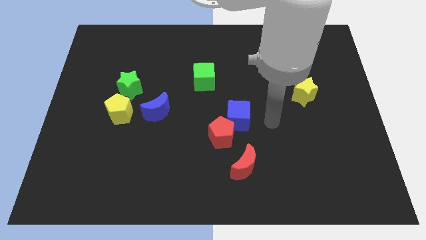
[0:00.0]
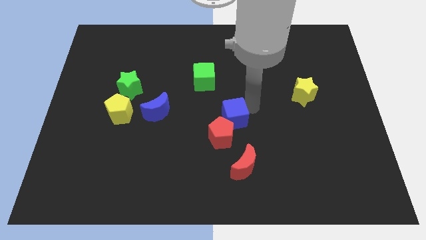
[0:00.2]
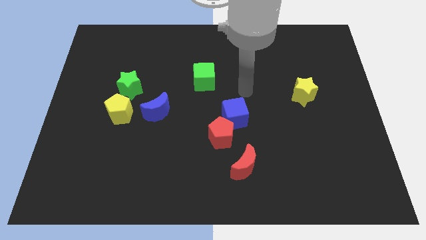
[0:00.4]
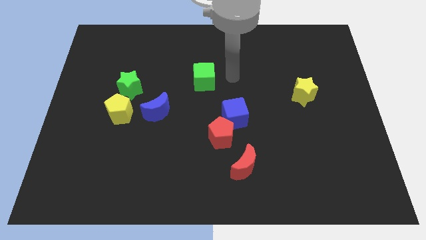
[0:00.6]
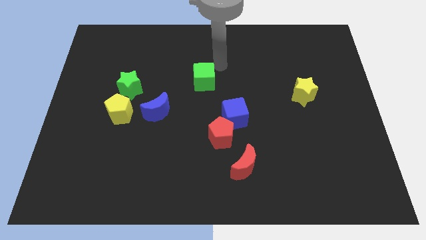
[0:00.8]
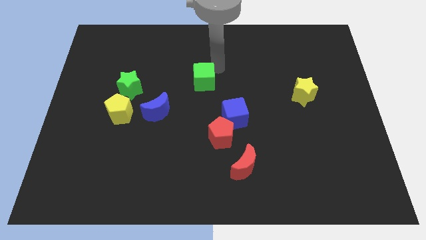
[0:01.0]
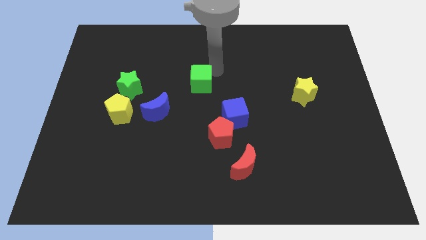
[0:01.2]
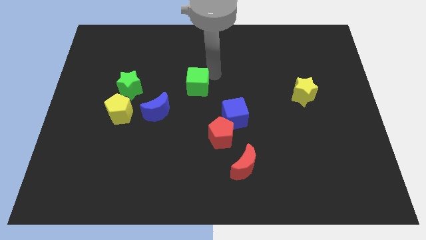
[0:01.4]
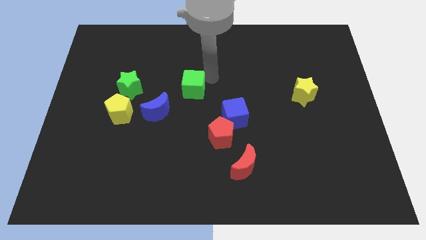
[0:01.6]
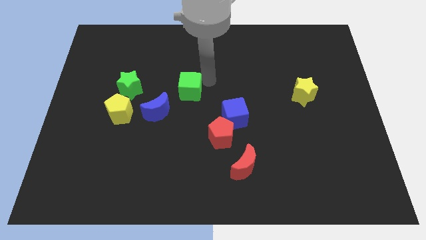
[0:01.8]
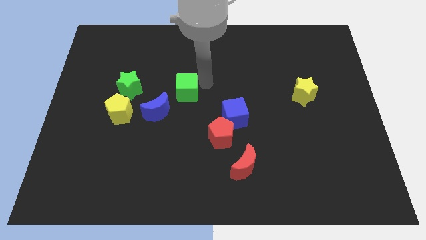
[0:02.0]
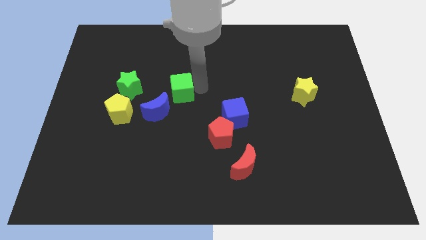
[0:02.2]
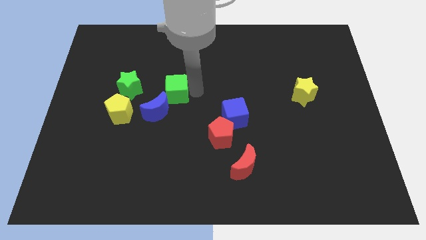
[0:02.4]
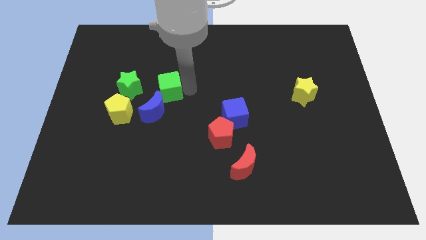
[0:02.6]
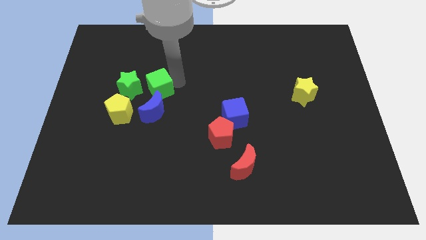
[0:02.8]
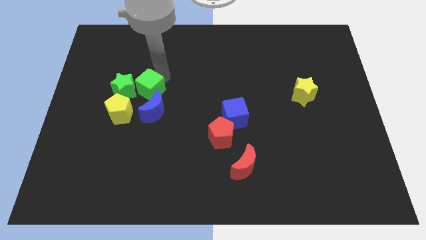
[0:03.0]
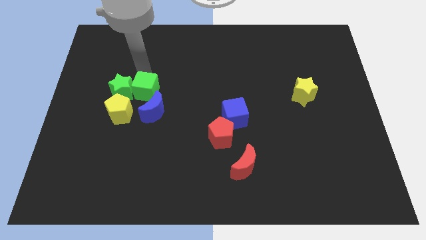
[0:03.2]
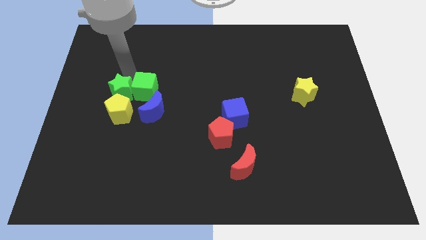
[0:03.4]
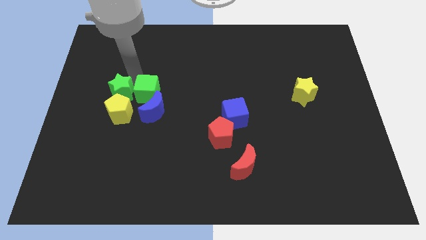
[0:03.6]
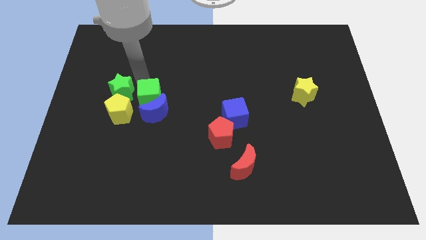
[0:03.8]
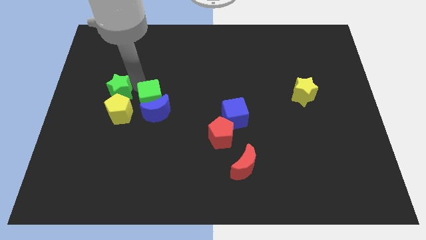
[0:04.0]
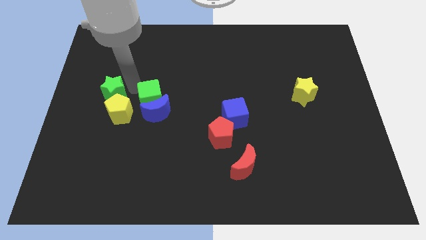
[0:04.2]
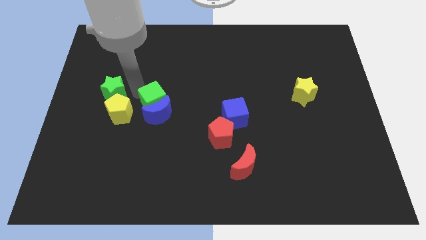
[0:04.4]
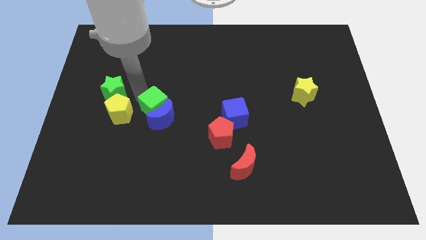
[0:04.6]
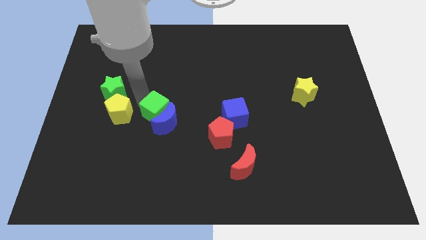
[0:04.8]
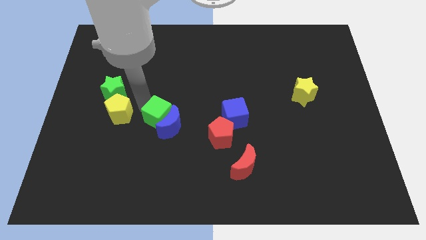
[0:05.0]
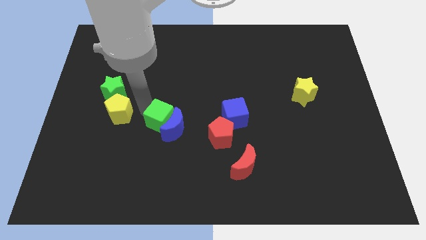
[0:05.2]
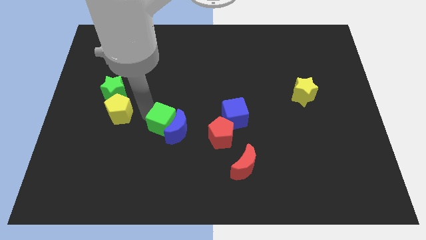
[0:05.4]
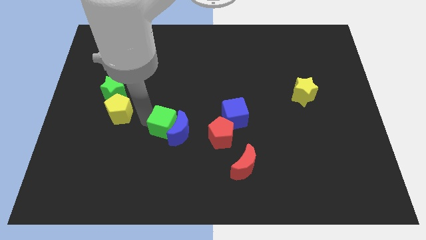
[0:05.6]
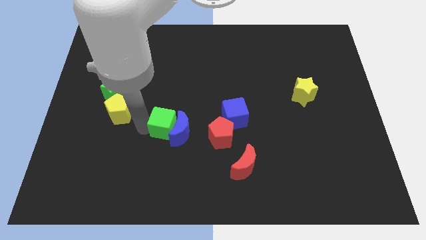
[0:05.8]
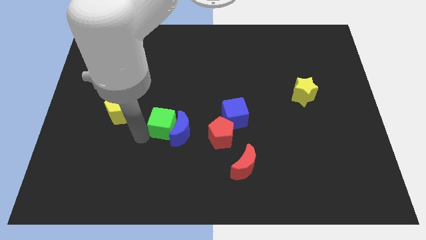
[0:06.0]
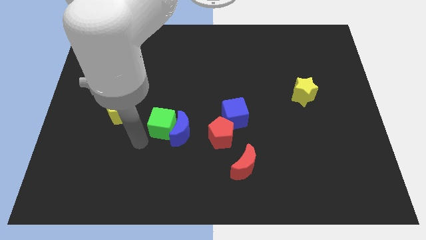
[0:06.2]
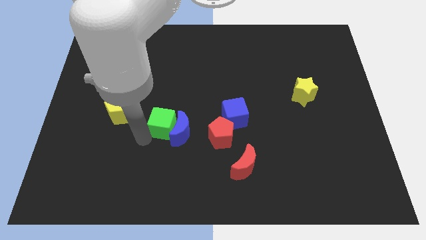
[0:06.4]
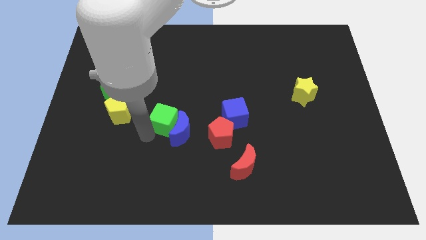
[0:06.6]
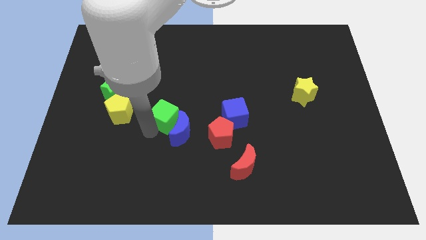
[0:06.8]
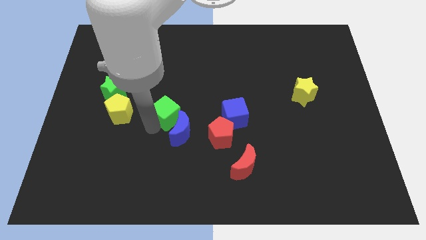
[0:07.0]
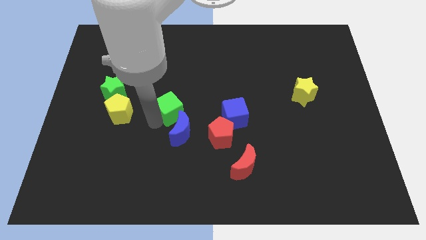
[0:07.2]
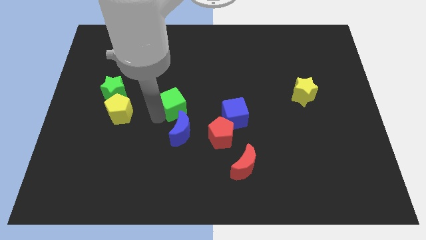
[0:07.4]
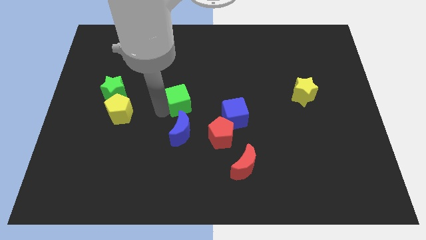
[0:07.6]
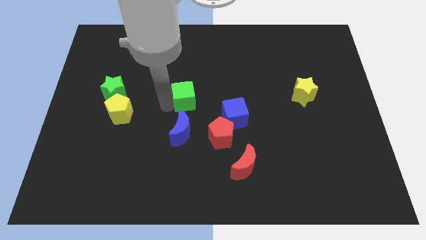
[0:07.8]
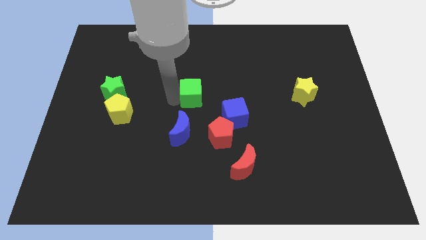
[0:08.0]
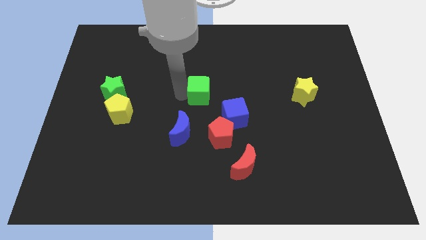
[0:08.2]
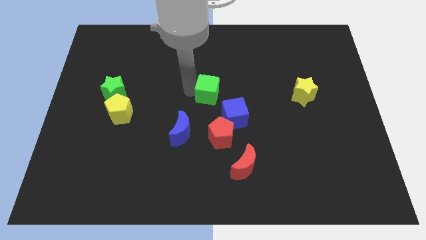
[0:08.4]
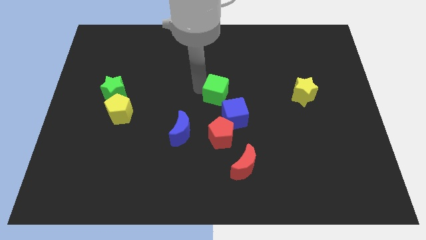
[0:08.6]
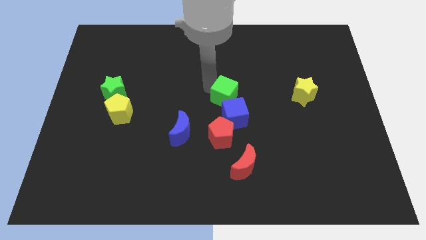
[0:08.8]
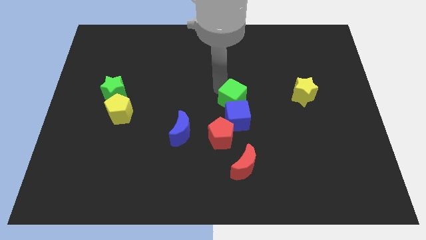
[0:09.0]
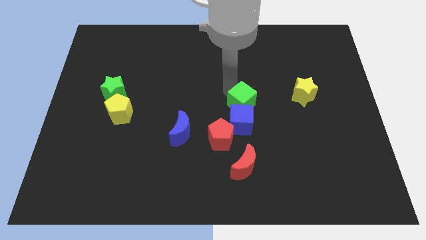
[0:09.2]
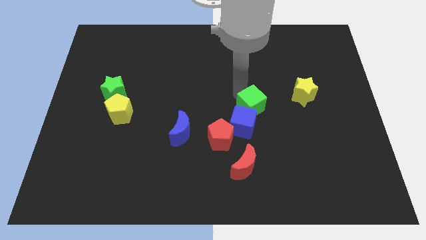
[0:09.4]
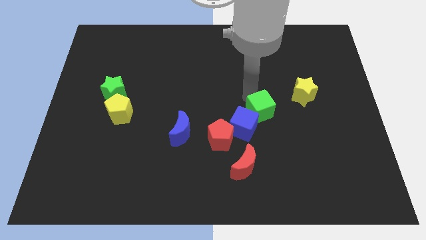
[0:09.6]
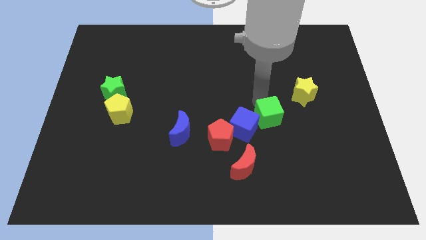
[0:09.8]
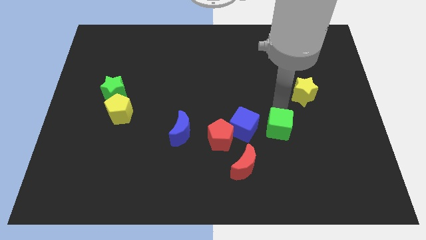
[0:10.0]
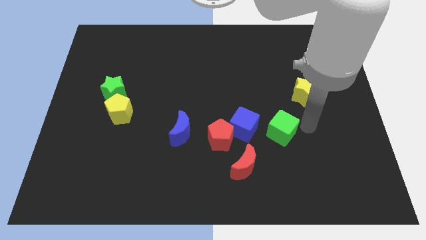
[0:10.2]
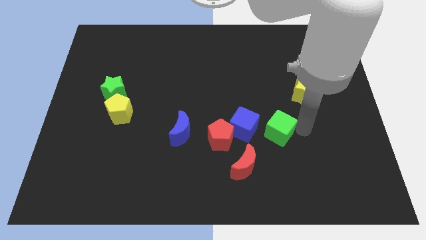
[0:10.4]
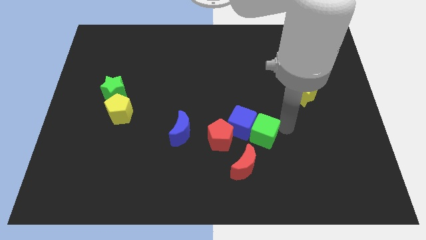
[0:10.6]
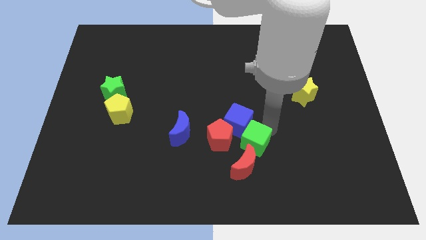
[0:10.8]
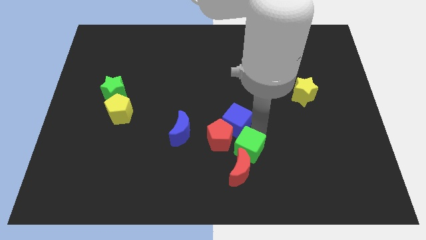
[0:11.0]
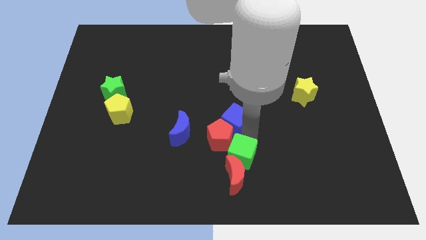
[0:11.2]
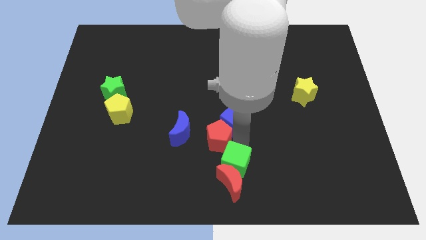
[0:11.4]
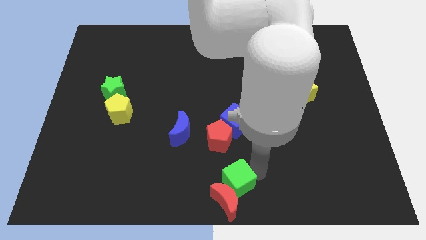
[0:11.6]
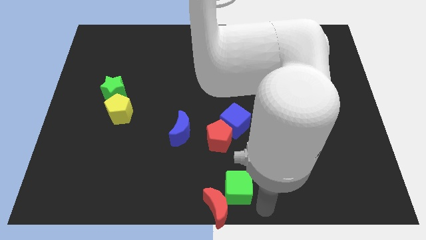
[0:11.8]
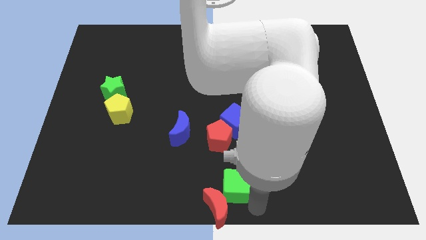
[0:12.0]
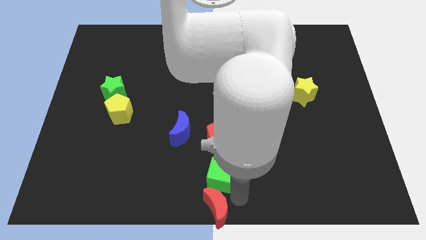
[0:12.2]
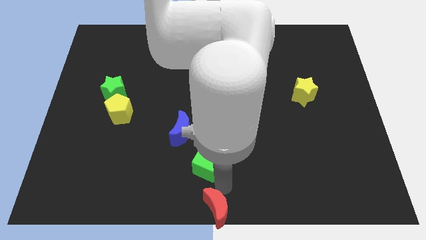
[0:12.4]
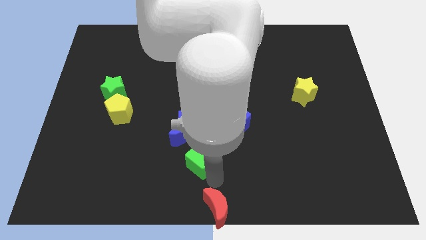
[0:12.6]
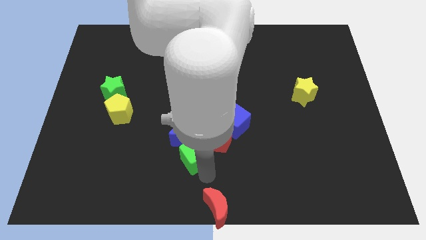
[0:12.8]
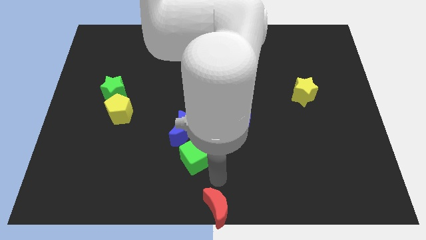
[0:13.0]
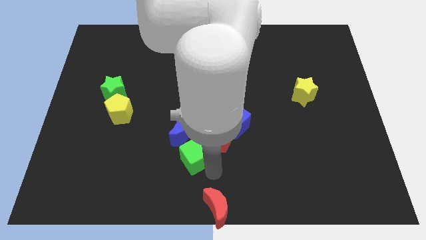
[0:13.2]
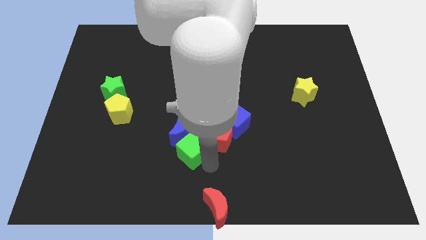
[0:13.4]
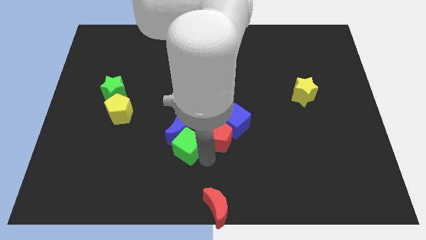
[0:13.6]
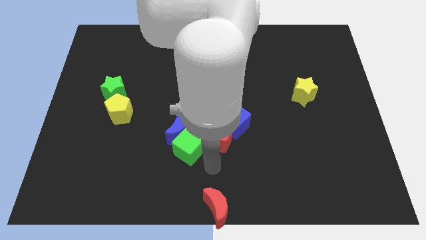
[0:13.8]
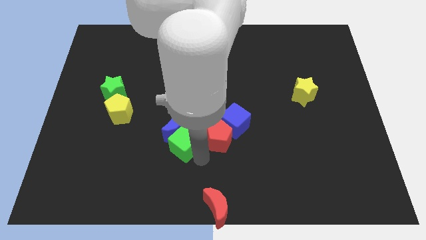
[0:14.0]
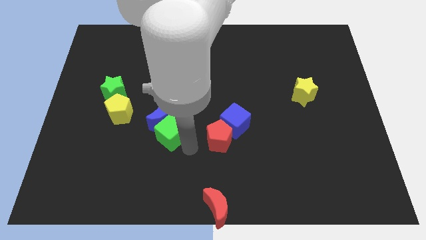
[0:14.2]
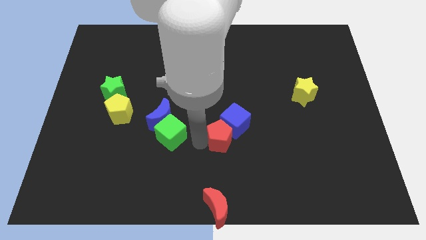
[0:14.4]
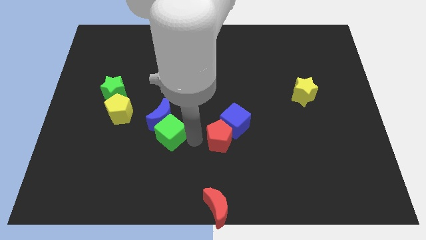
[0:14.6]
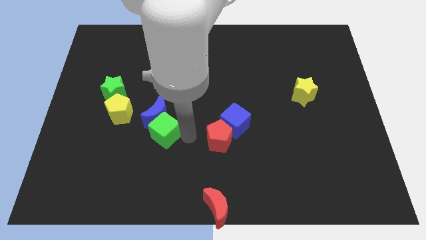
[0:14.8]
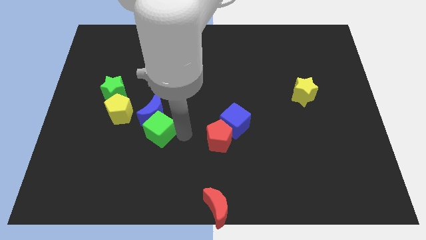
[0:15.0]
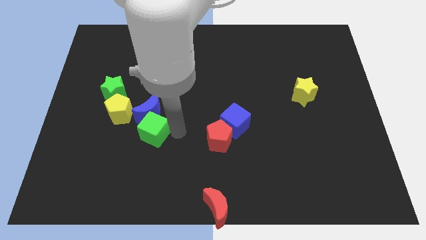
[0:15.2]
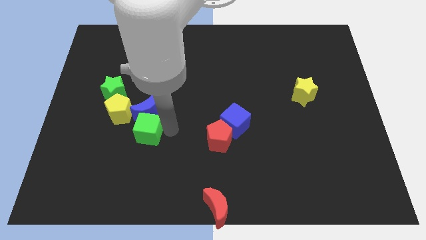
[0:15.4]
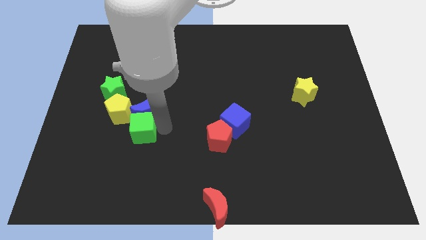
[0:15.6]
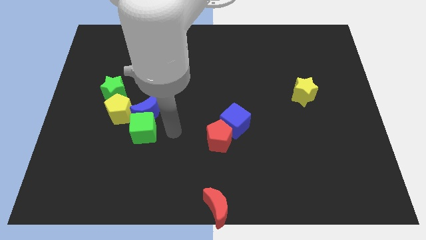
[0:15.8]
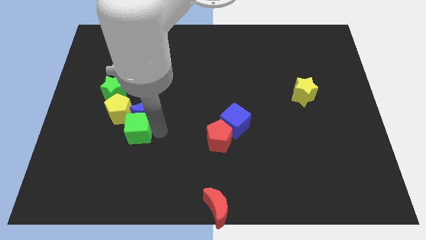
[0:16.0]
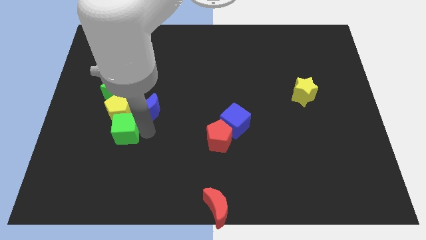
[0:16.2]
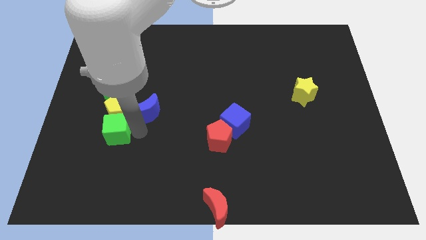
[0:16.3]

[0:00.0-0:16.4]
slide the green cube diagonally down and to the left of the yellow pentagon
